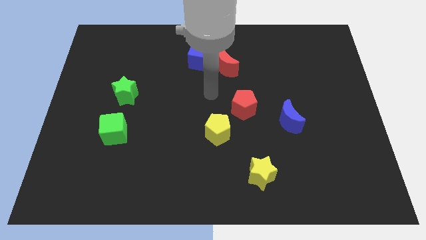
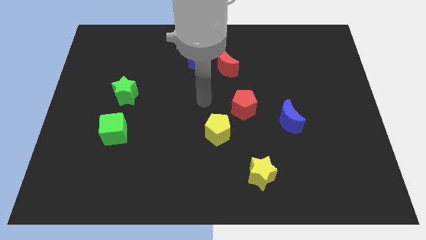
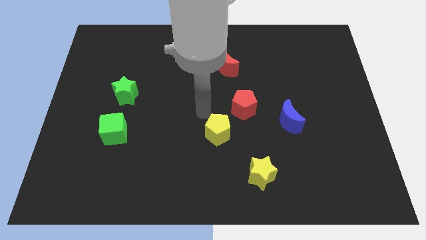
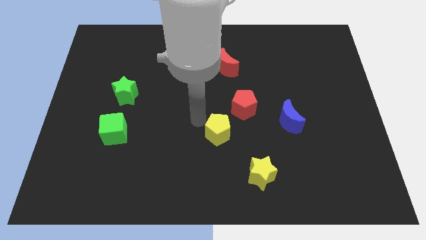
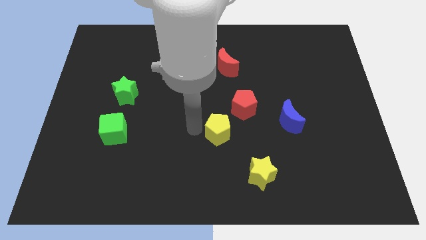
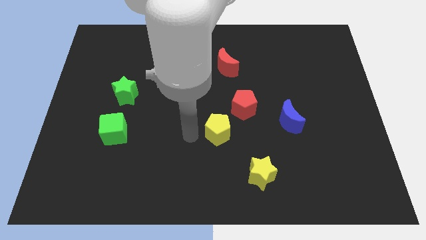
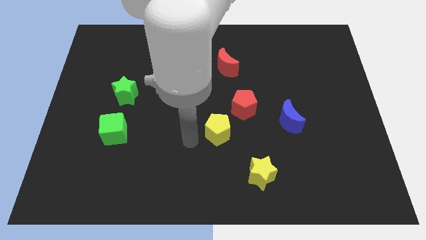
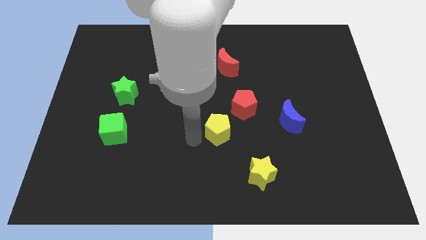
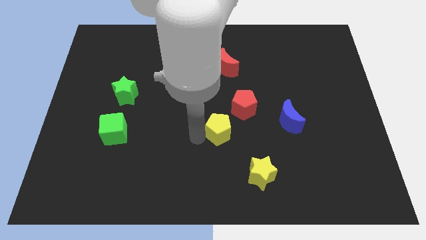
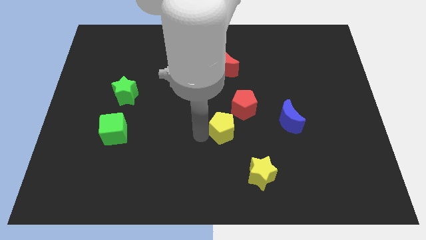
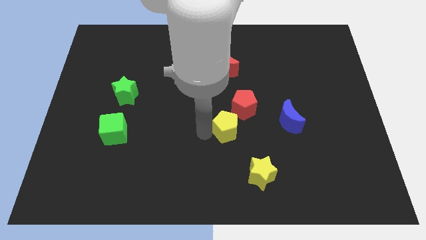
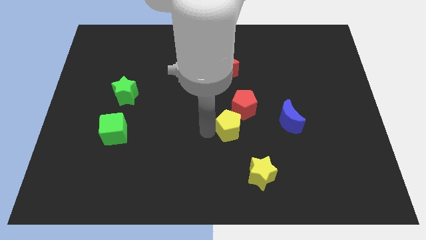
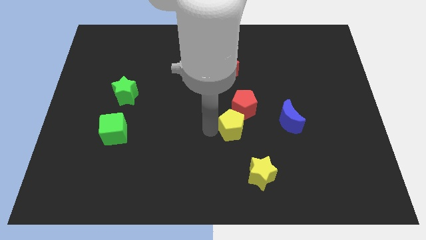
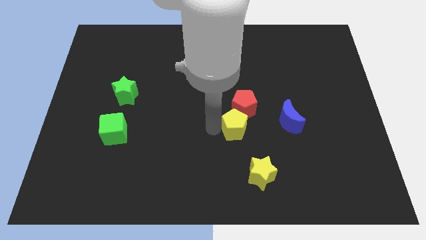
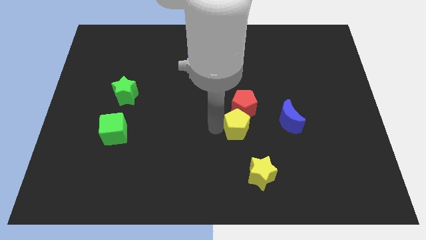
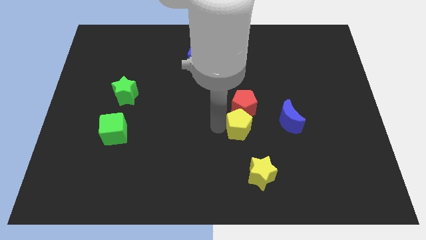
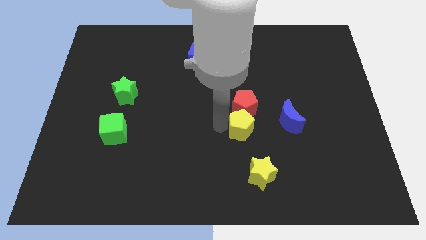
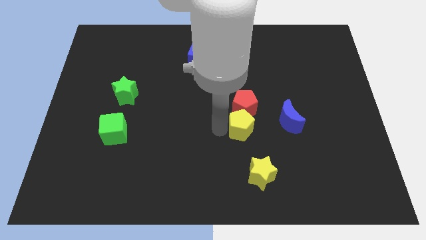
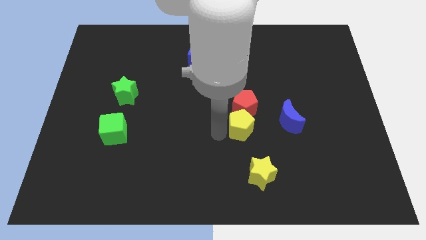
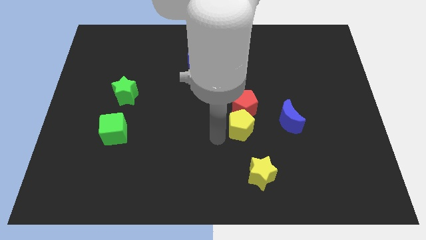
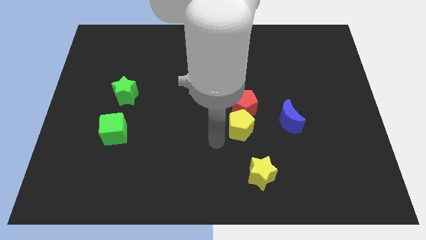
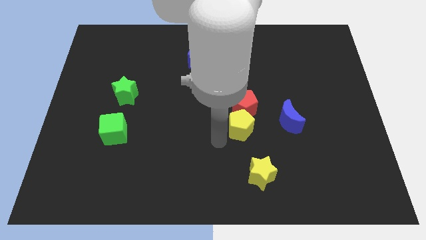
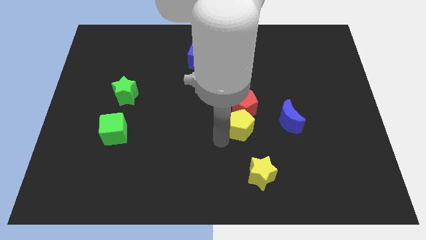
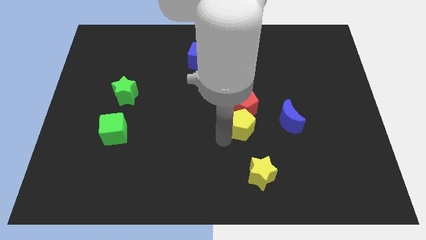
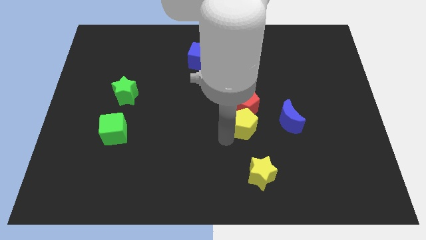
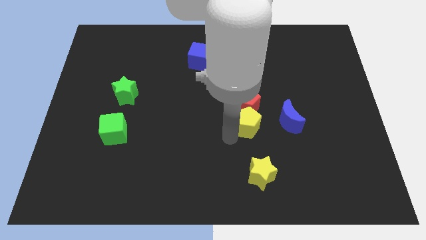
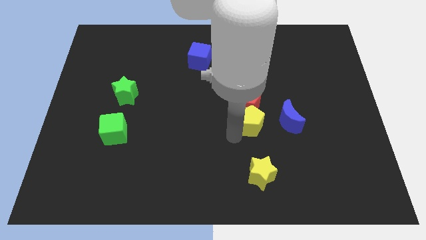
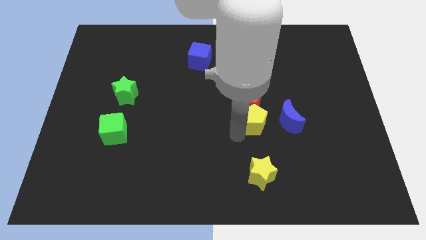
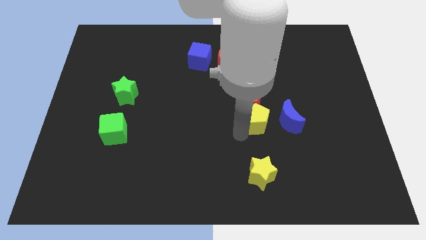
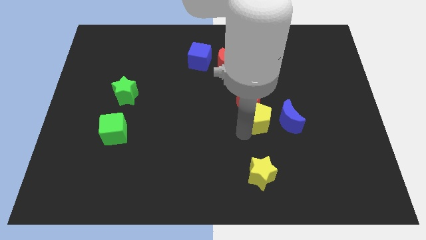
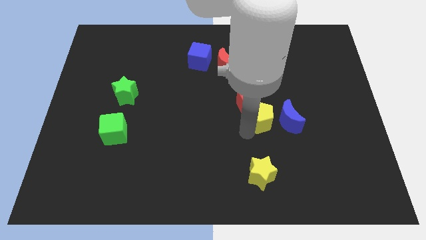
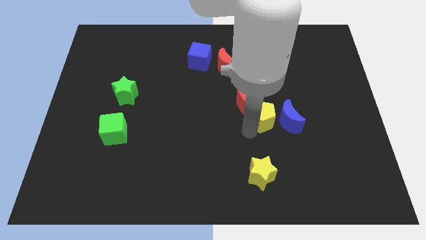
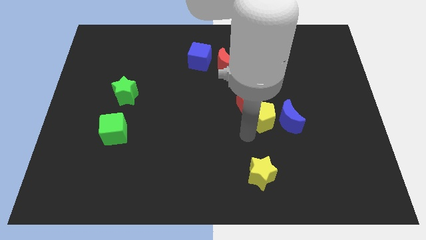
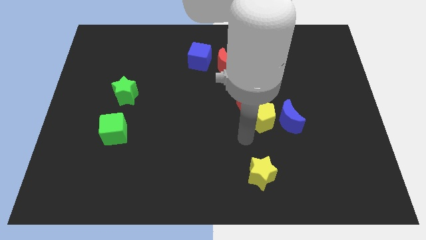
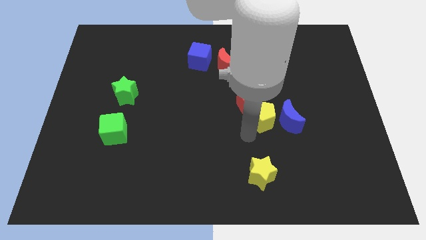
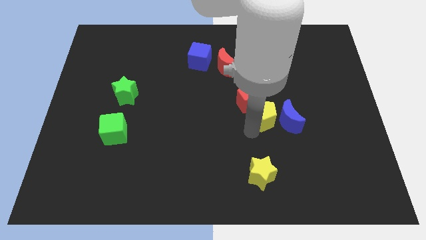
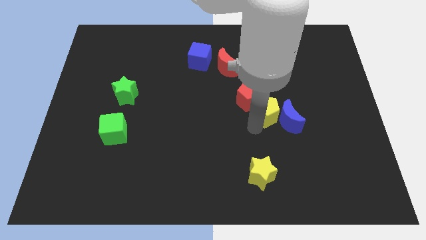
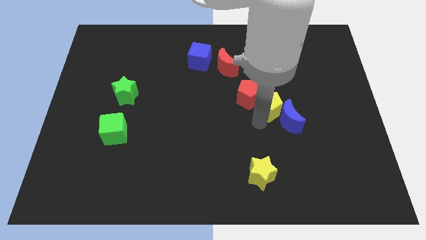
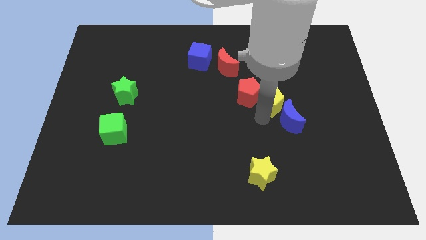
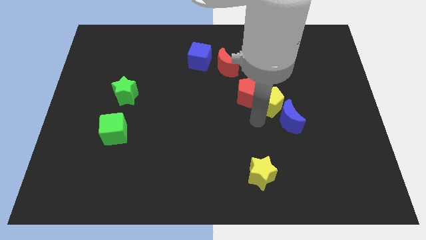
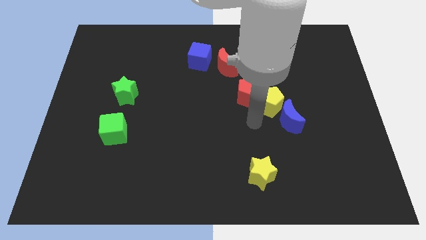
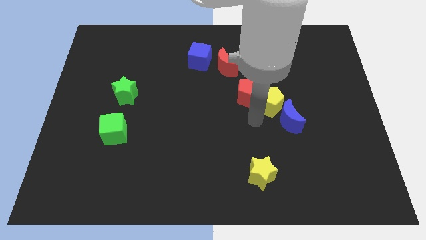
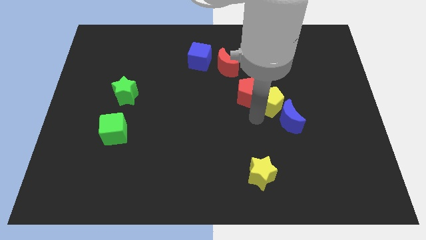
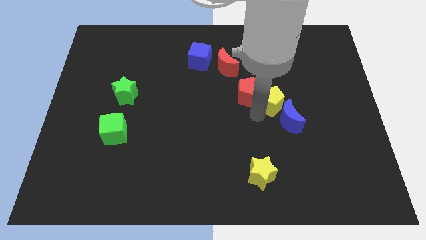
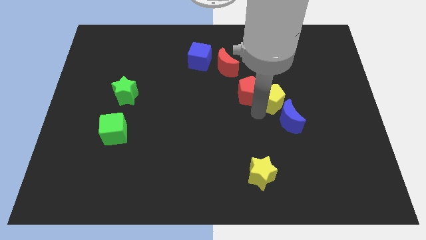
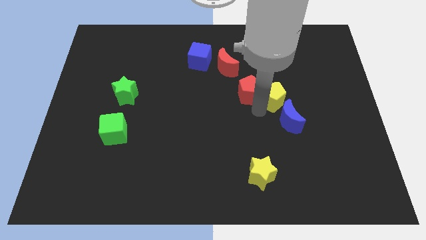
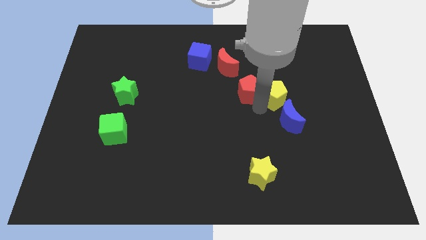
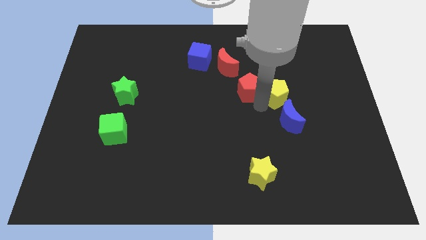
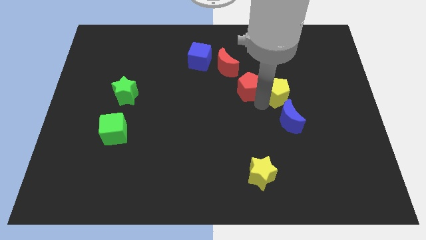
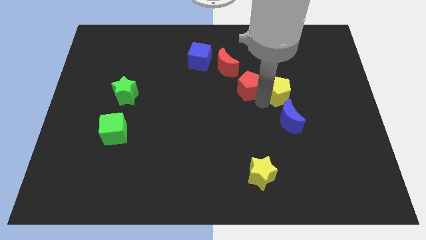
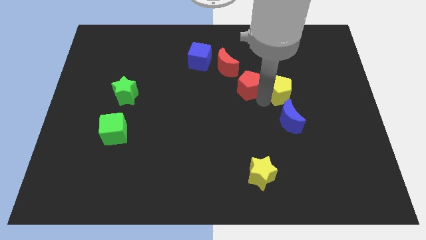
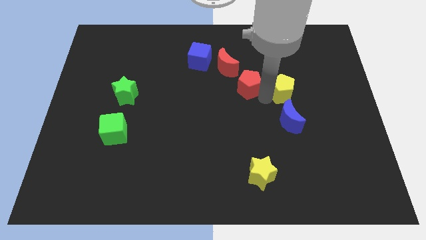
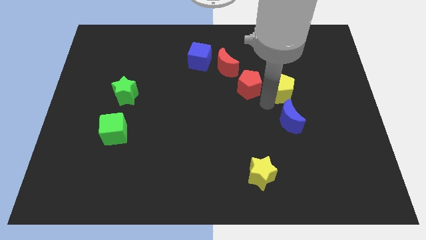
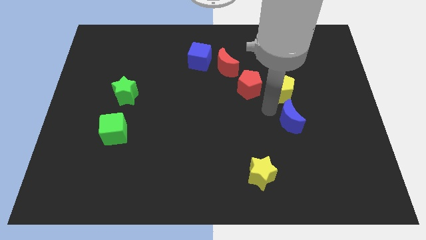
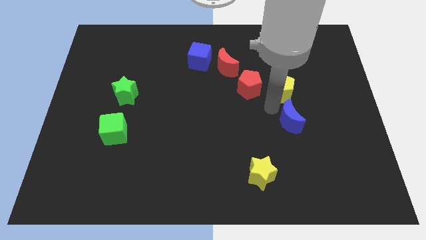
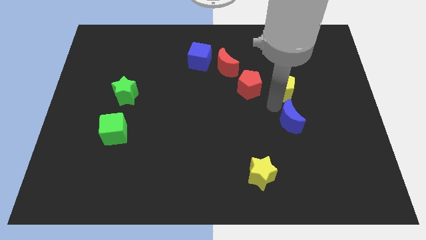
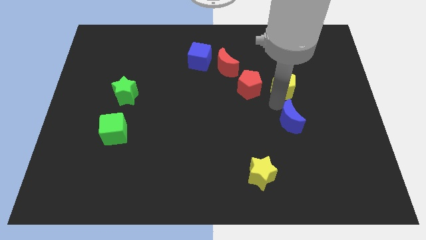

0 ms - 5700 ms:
move the yellow pentagon up and then right

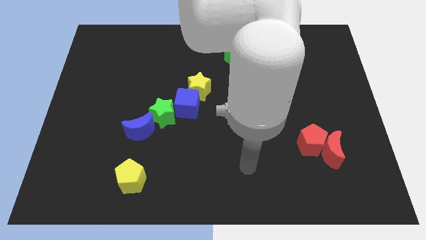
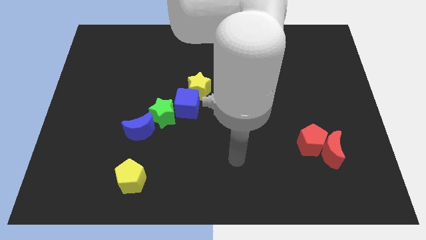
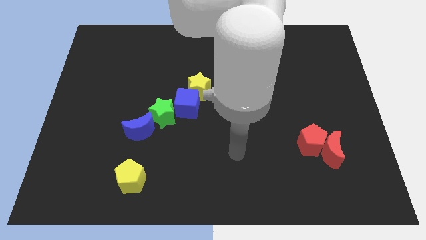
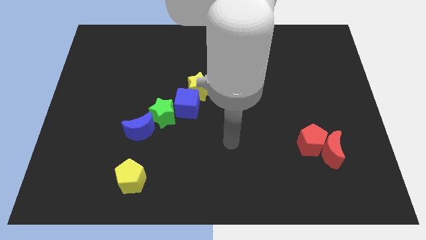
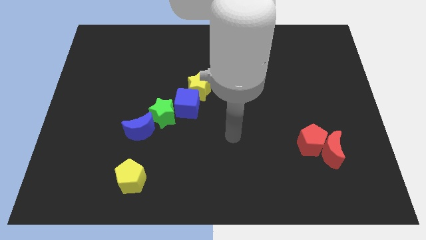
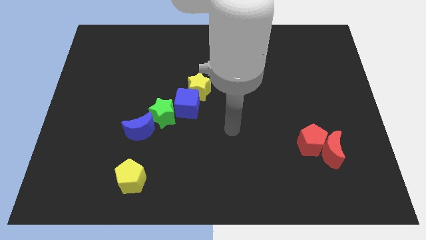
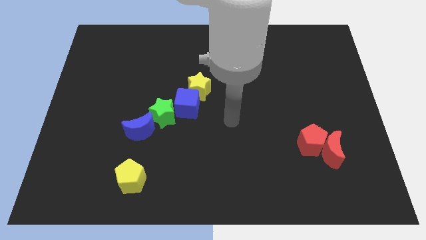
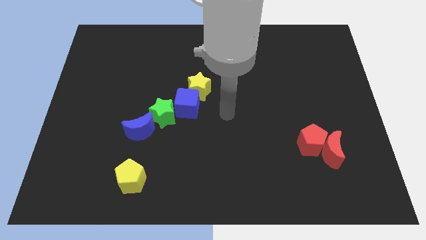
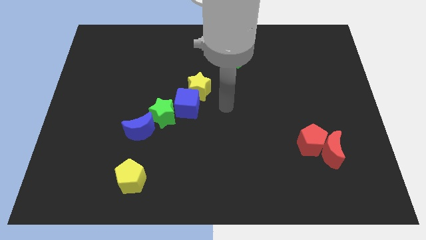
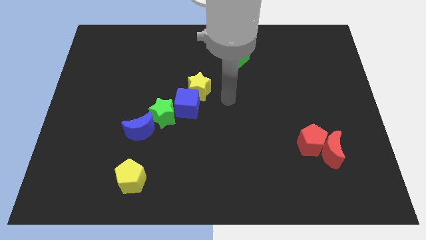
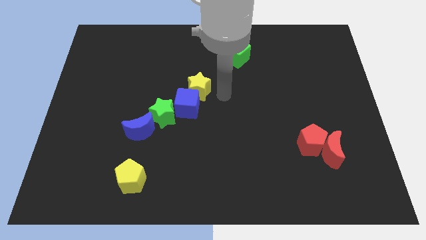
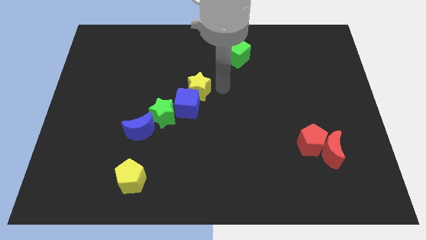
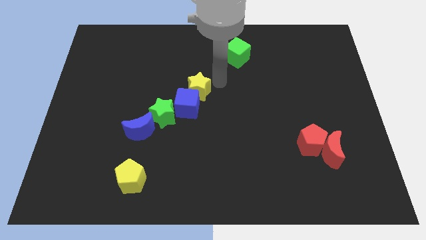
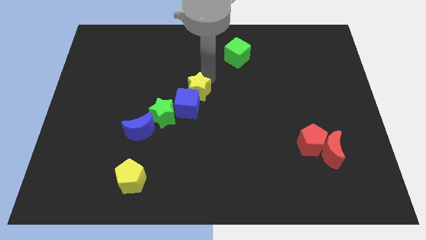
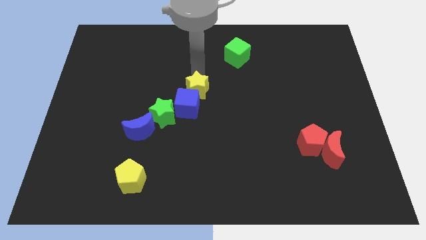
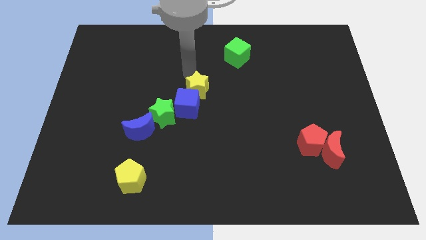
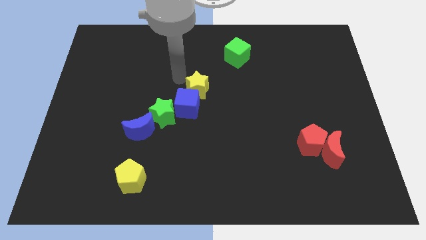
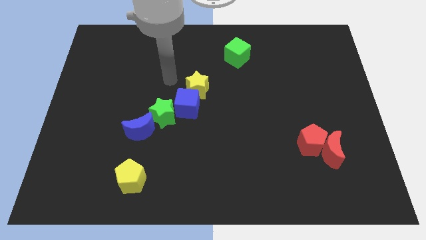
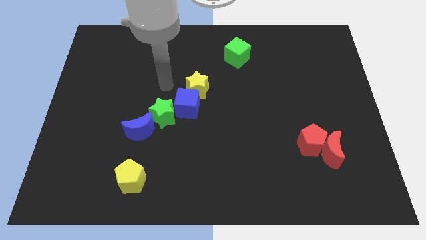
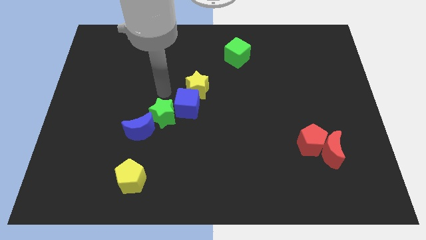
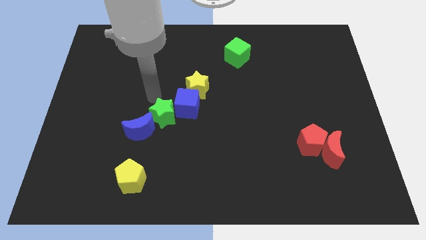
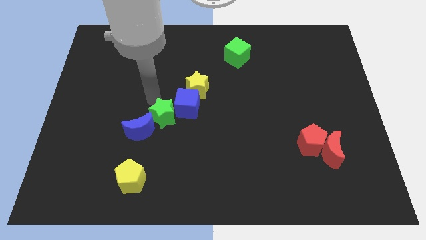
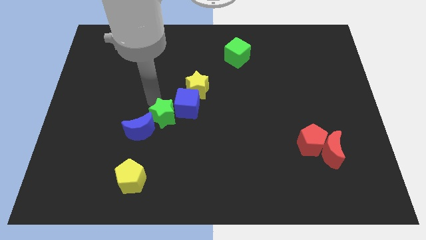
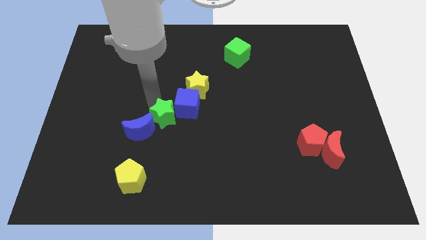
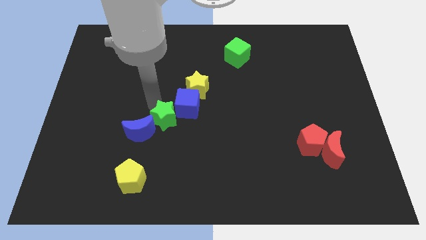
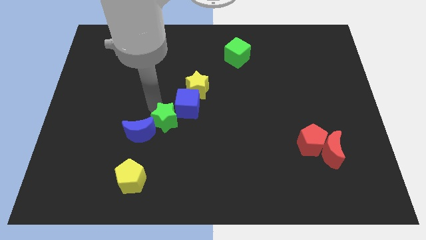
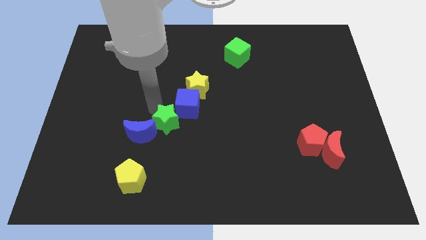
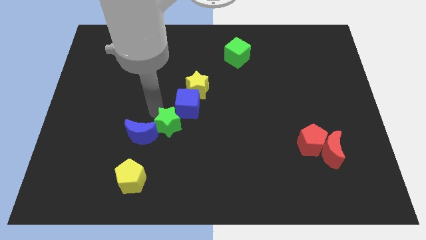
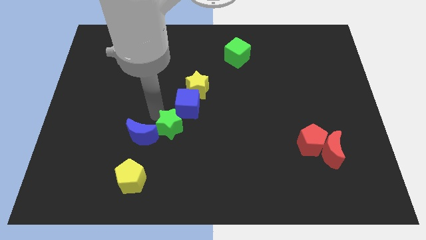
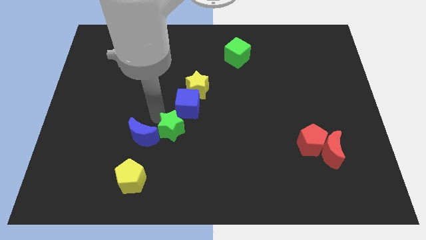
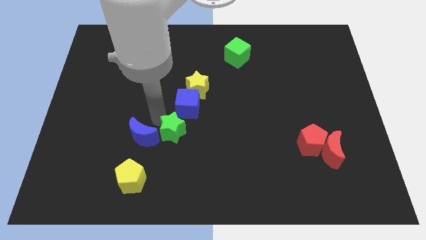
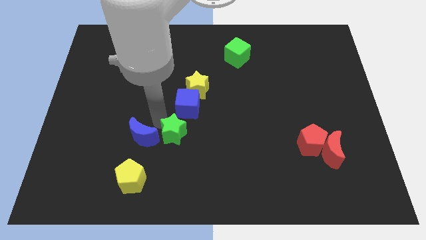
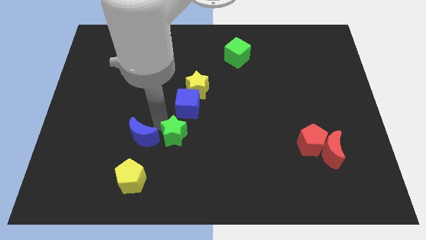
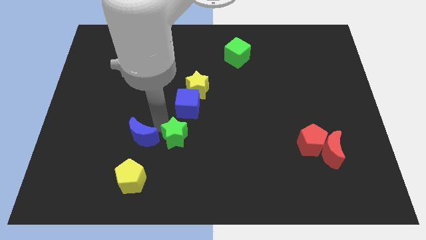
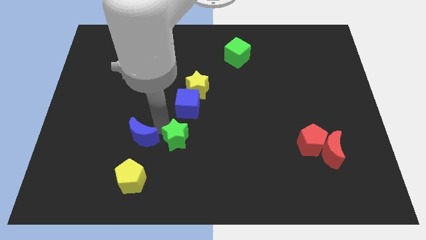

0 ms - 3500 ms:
push the green star slightly downwards and right diagonally
